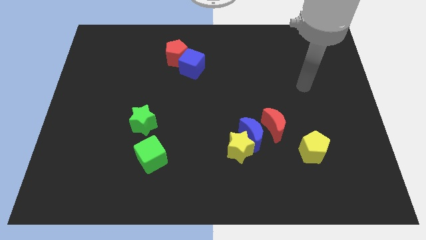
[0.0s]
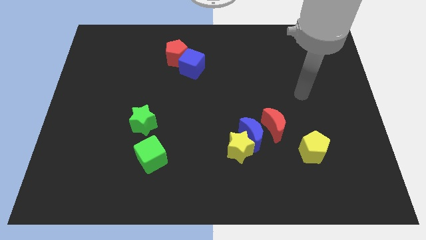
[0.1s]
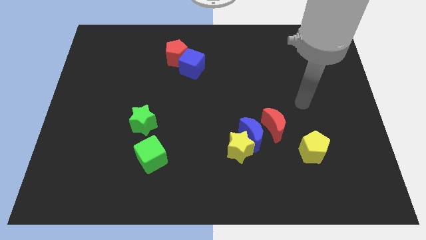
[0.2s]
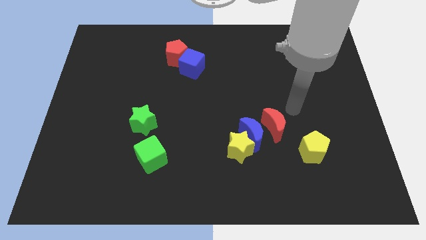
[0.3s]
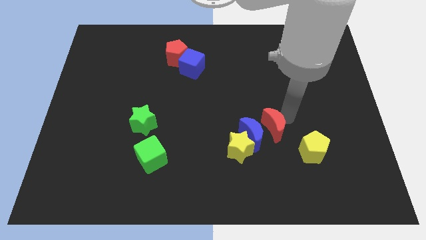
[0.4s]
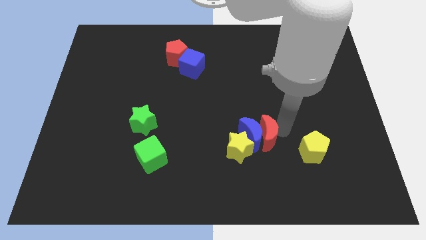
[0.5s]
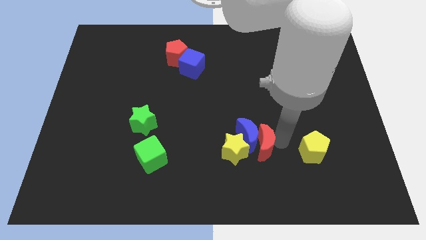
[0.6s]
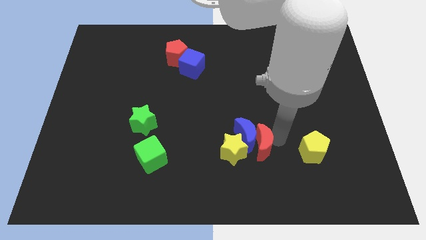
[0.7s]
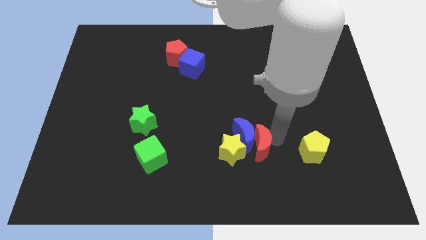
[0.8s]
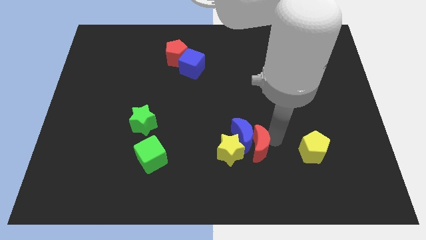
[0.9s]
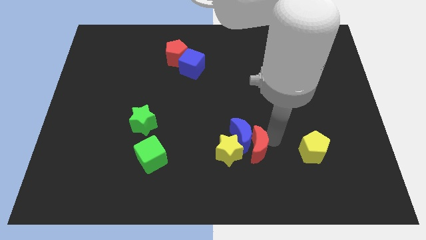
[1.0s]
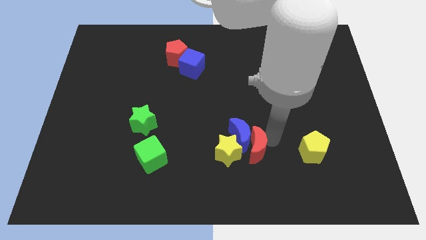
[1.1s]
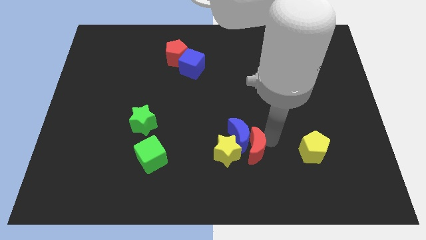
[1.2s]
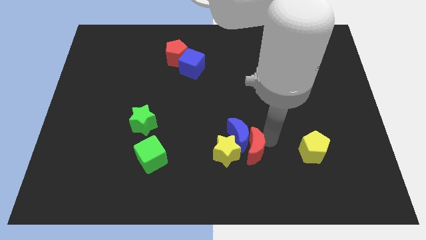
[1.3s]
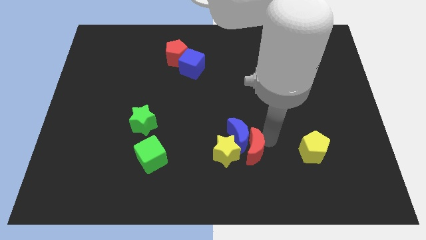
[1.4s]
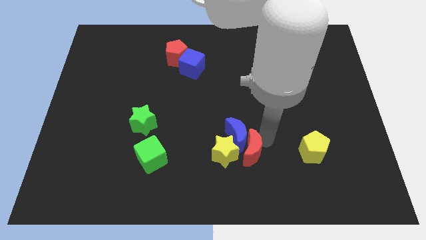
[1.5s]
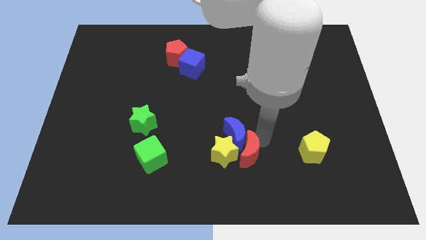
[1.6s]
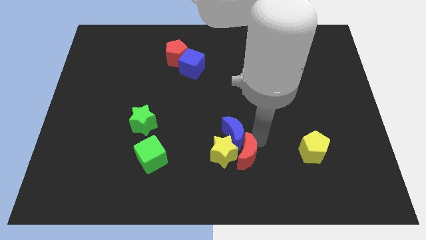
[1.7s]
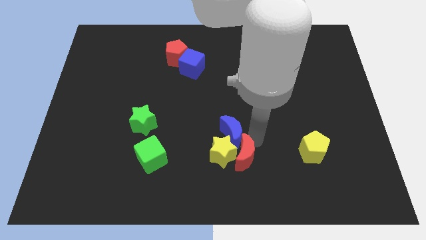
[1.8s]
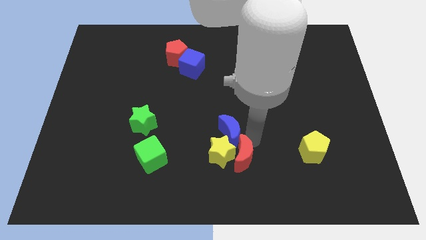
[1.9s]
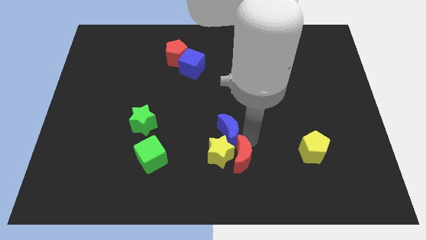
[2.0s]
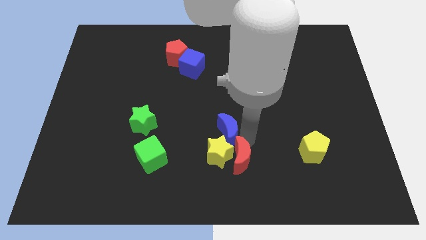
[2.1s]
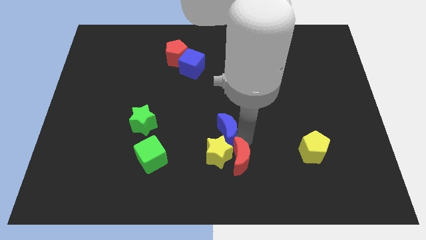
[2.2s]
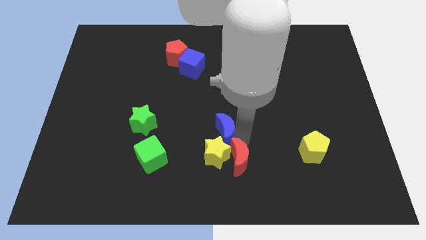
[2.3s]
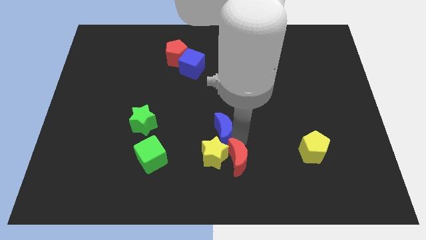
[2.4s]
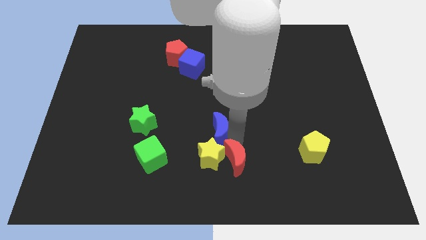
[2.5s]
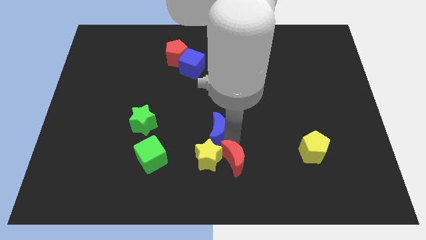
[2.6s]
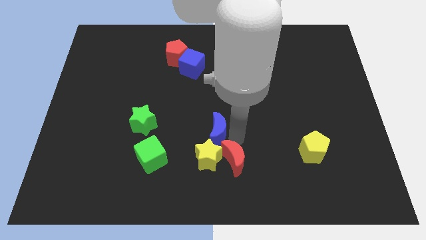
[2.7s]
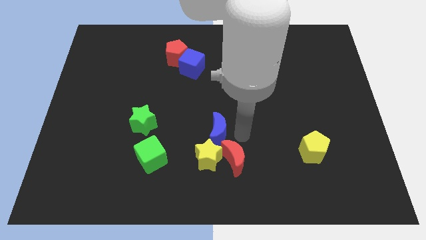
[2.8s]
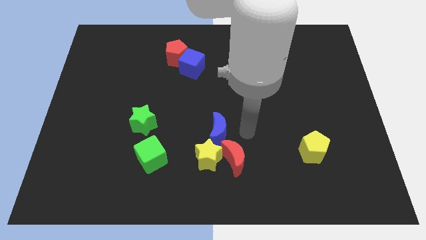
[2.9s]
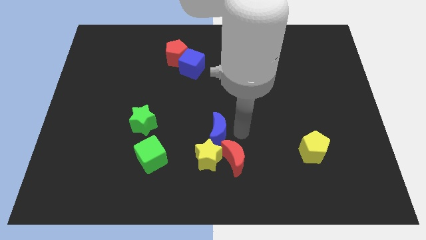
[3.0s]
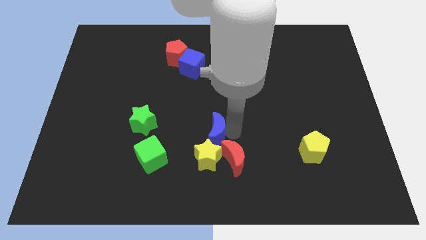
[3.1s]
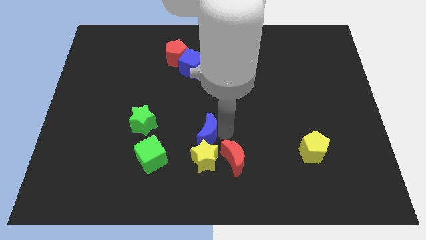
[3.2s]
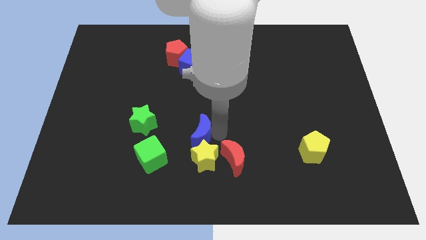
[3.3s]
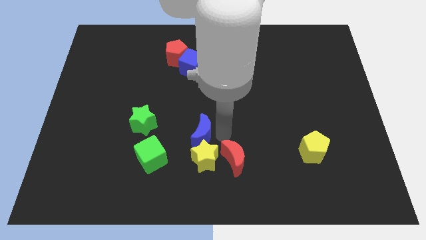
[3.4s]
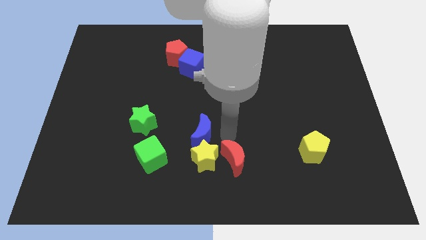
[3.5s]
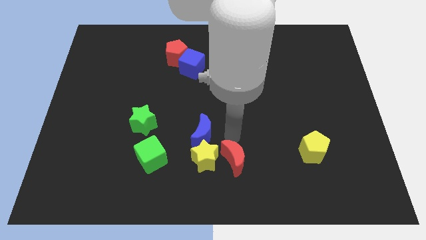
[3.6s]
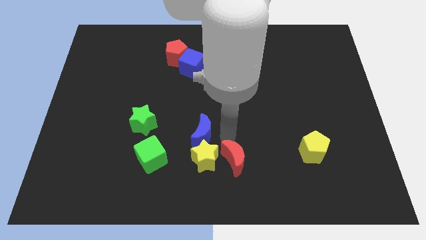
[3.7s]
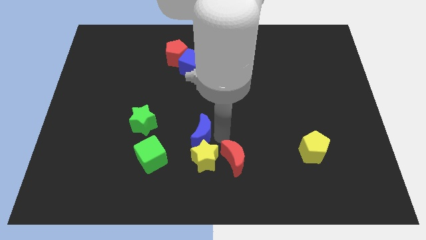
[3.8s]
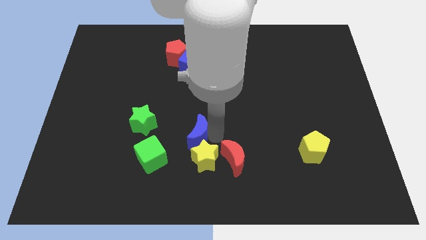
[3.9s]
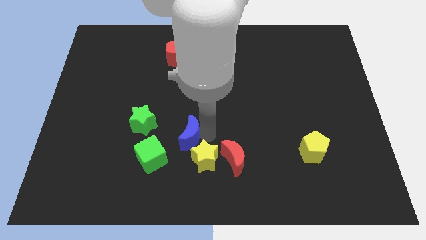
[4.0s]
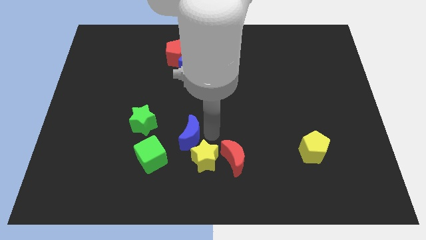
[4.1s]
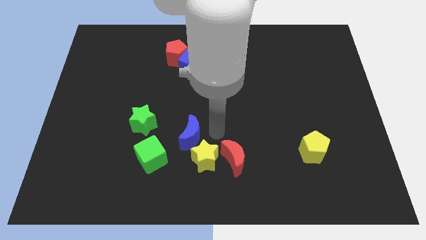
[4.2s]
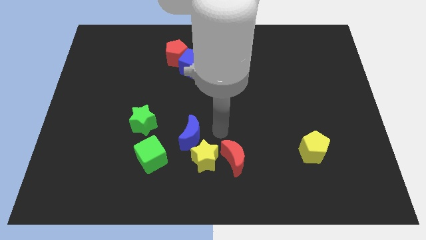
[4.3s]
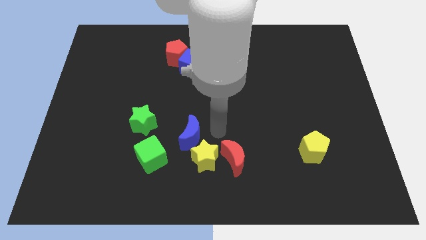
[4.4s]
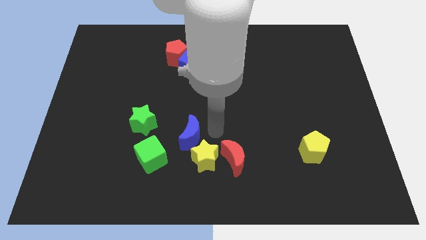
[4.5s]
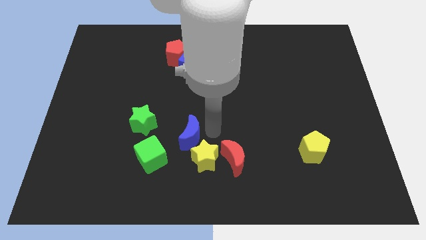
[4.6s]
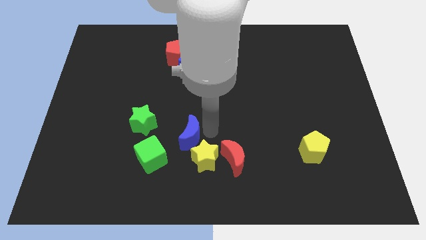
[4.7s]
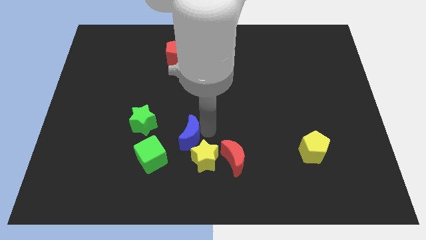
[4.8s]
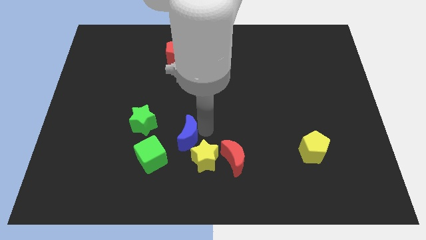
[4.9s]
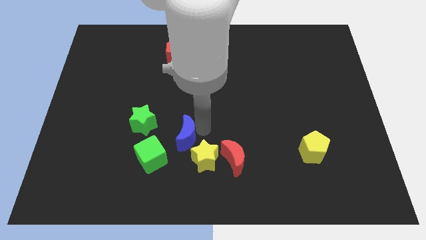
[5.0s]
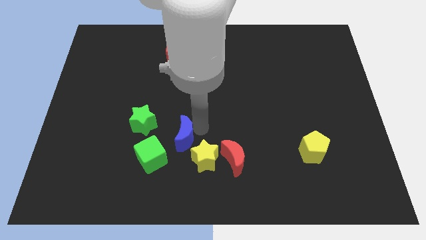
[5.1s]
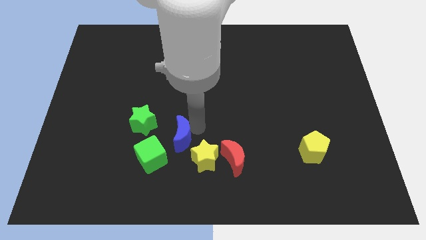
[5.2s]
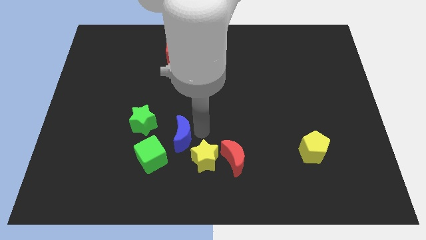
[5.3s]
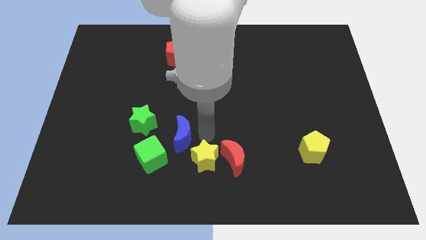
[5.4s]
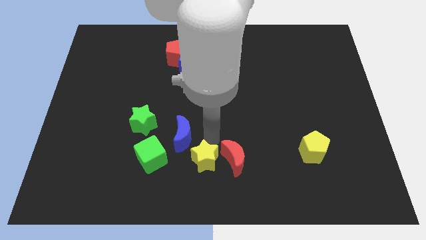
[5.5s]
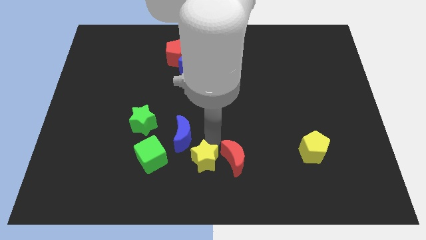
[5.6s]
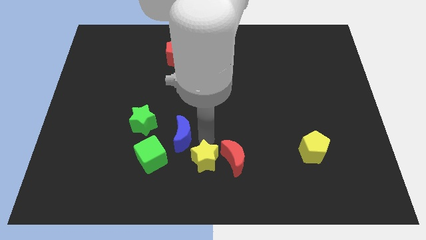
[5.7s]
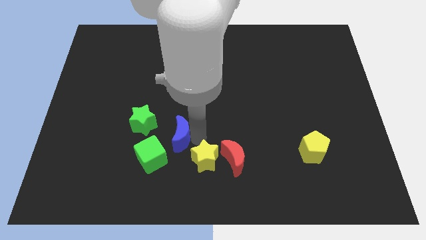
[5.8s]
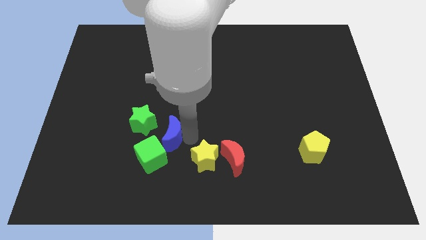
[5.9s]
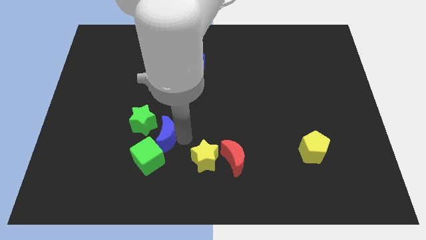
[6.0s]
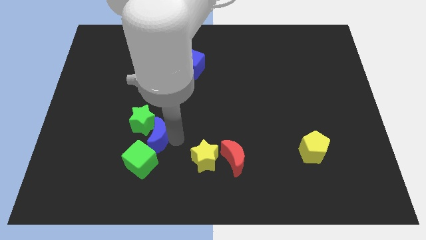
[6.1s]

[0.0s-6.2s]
put the blue moon next to the green star

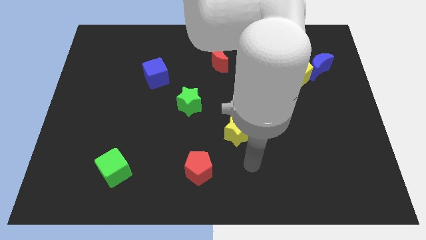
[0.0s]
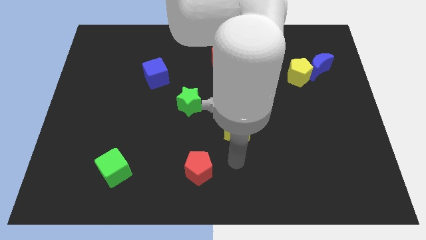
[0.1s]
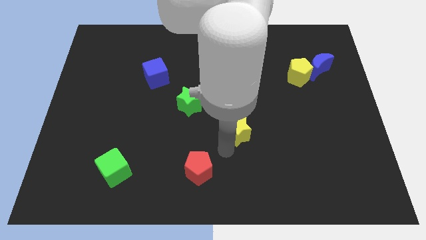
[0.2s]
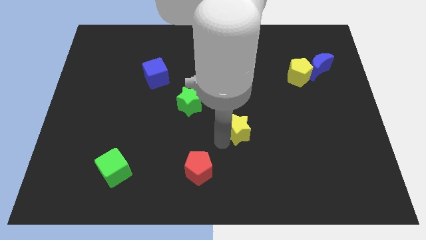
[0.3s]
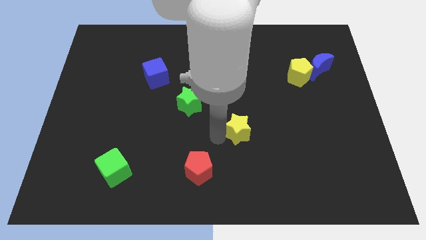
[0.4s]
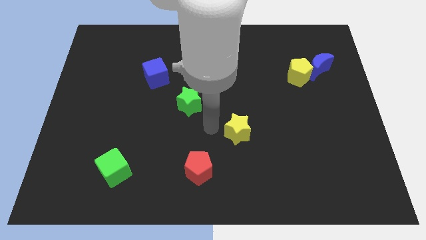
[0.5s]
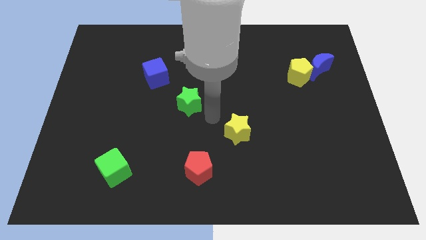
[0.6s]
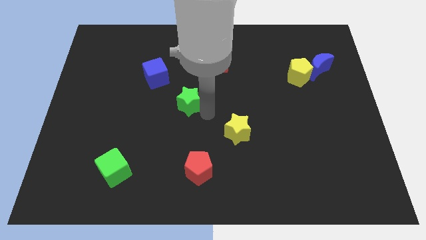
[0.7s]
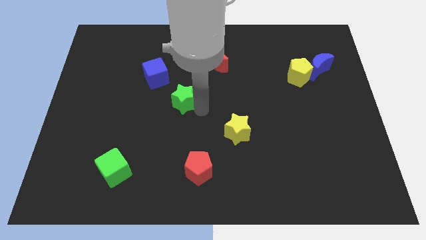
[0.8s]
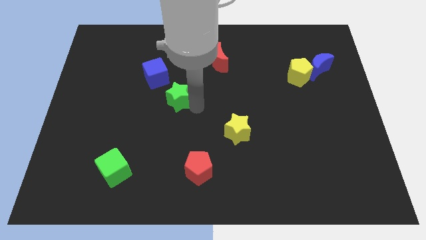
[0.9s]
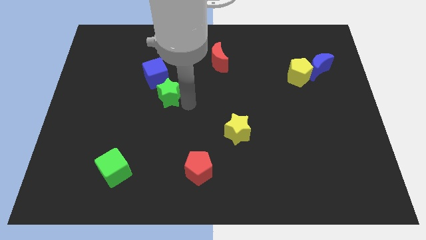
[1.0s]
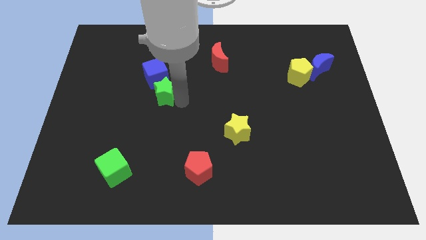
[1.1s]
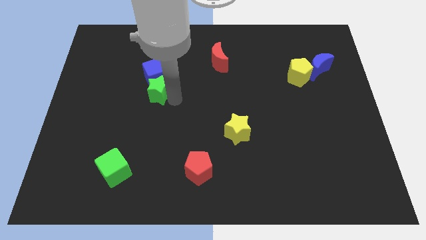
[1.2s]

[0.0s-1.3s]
slide the green star next to the blue cube
